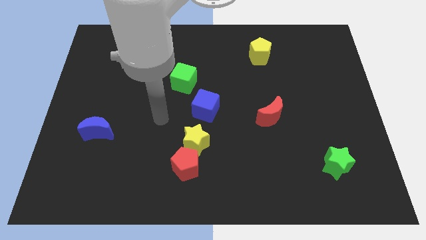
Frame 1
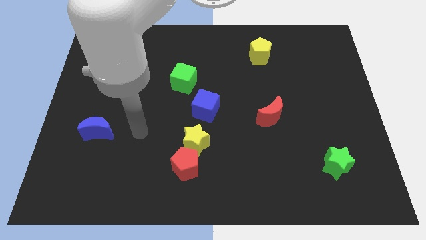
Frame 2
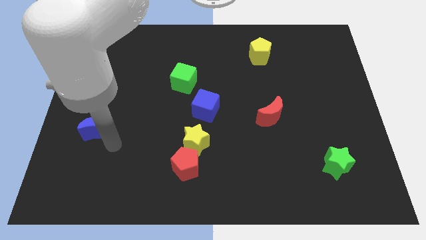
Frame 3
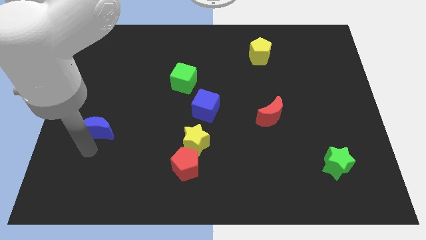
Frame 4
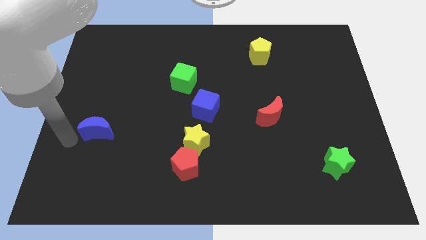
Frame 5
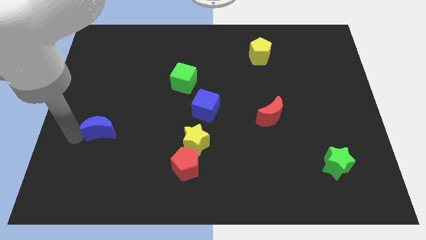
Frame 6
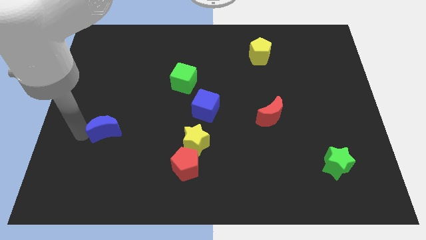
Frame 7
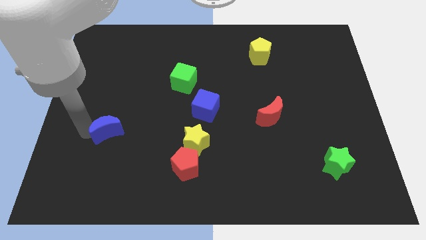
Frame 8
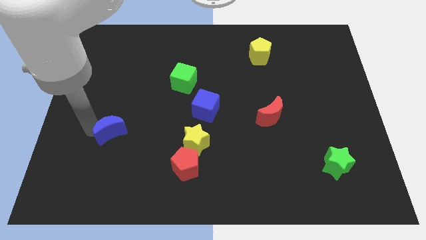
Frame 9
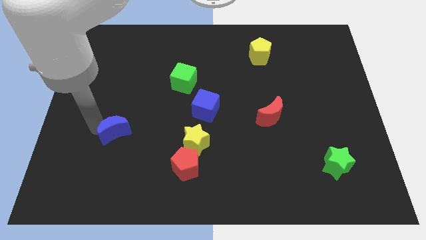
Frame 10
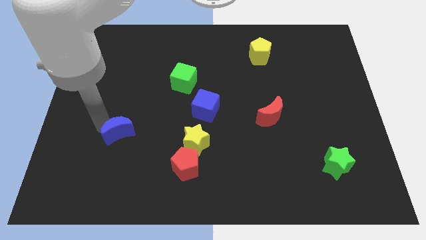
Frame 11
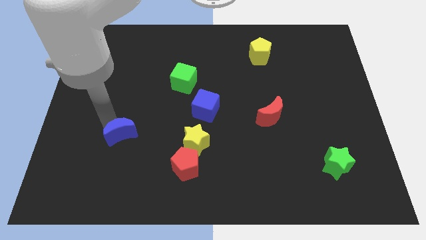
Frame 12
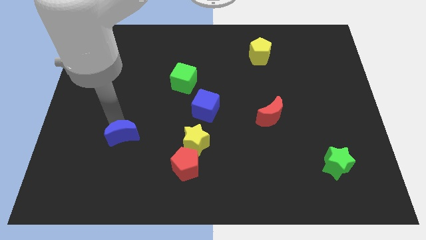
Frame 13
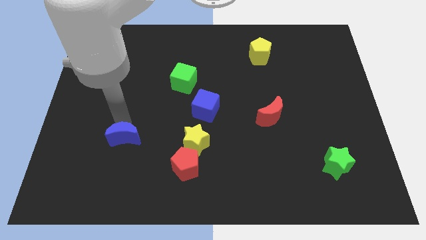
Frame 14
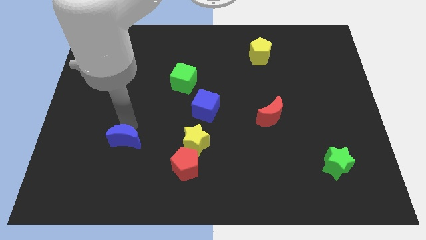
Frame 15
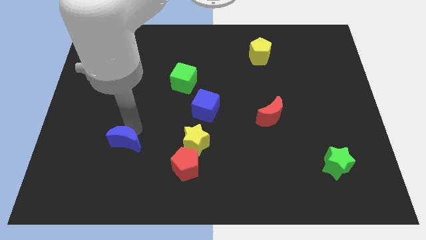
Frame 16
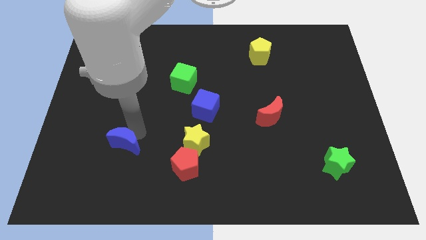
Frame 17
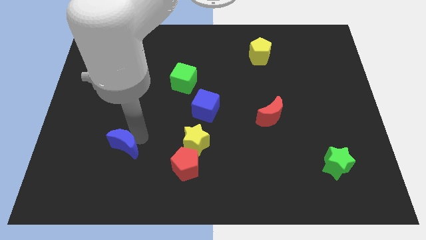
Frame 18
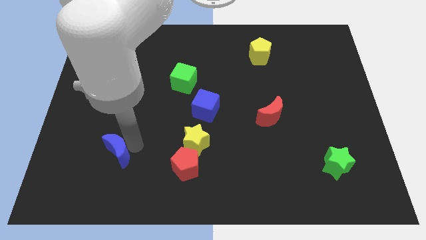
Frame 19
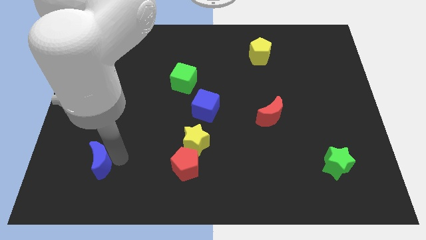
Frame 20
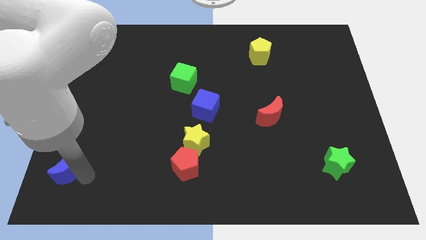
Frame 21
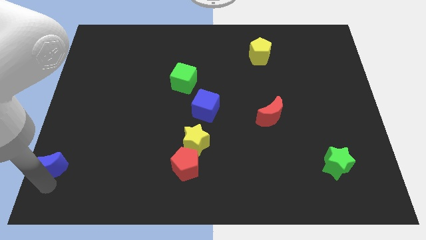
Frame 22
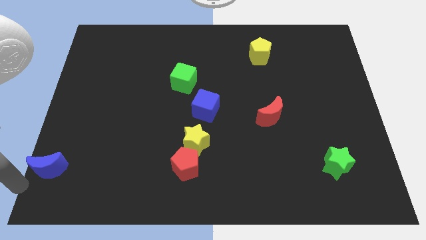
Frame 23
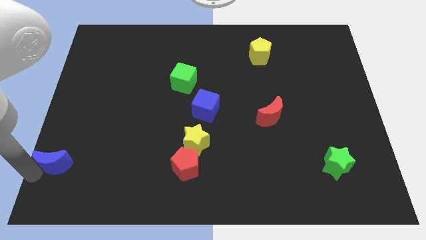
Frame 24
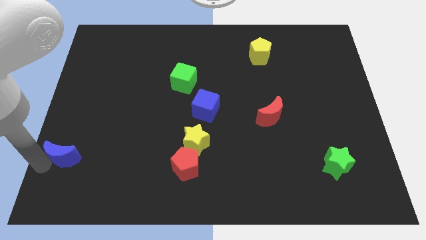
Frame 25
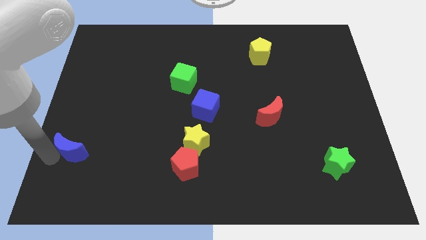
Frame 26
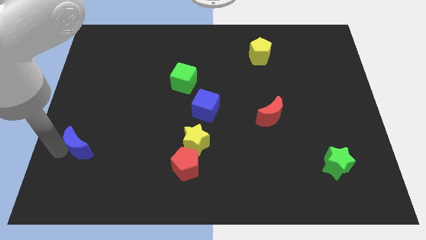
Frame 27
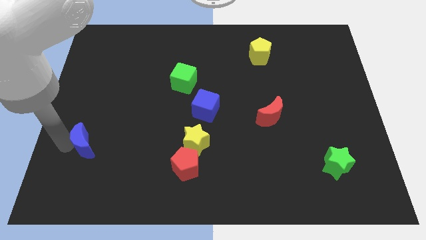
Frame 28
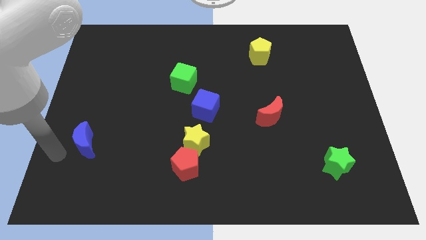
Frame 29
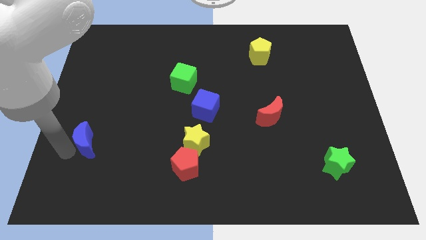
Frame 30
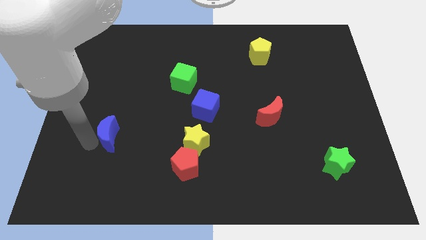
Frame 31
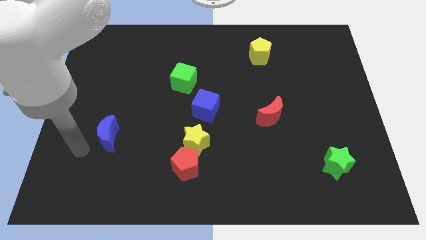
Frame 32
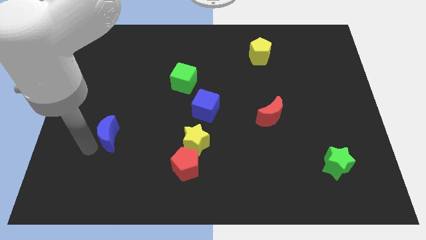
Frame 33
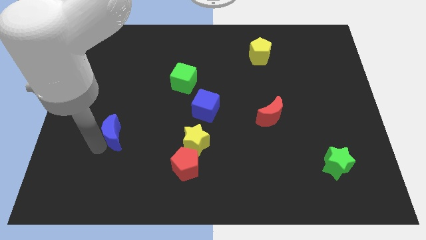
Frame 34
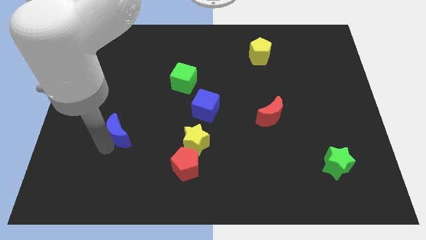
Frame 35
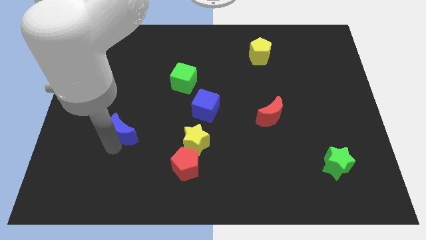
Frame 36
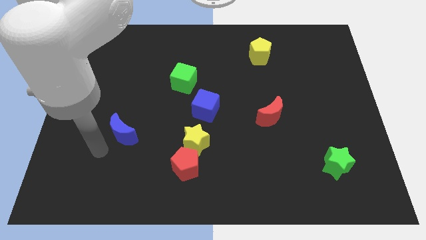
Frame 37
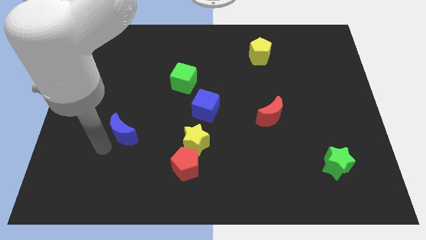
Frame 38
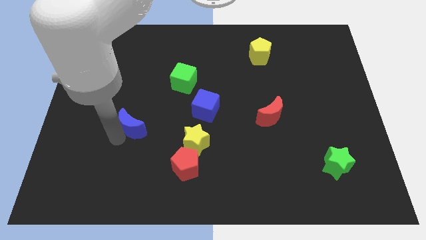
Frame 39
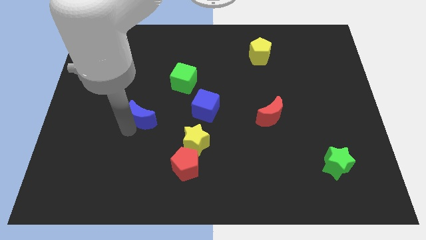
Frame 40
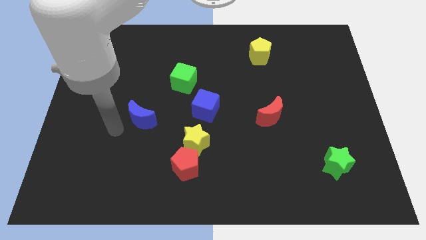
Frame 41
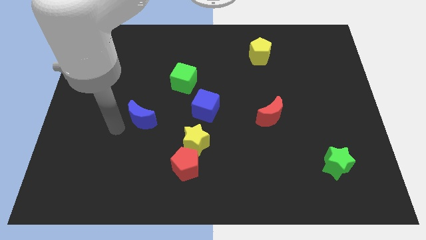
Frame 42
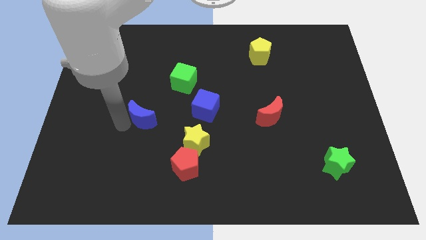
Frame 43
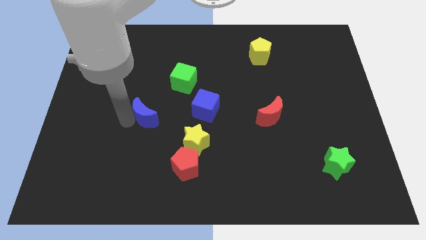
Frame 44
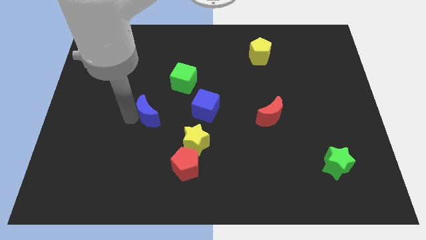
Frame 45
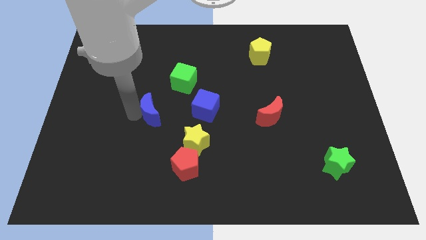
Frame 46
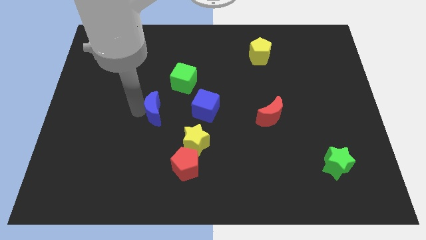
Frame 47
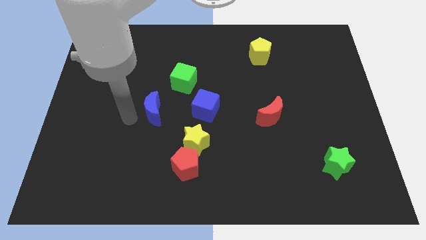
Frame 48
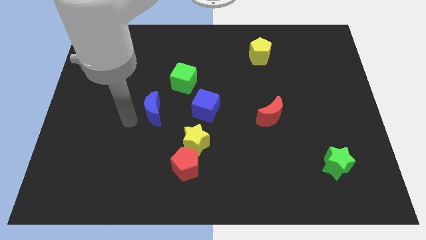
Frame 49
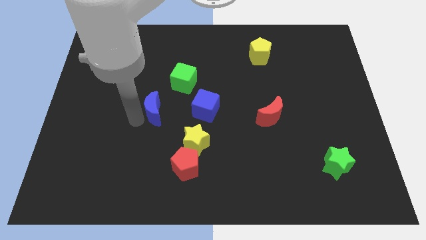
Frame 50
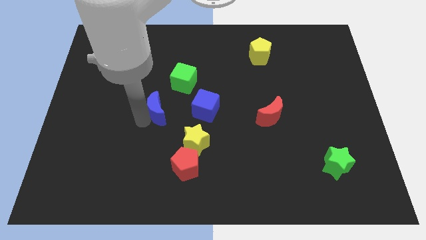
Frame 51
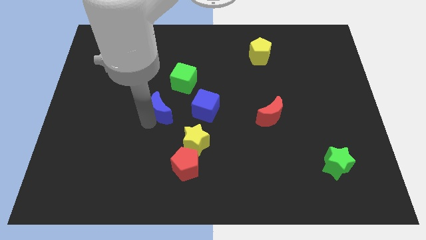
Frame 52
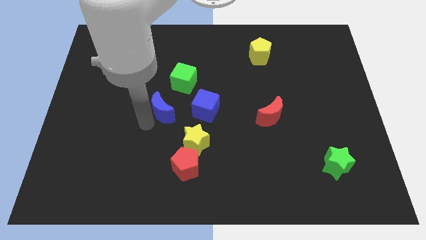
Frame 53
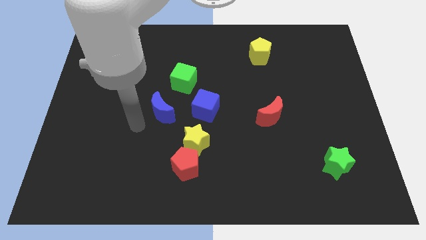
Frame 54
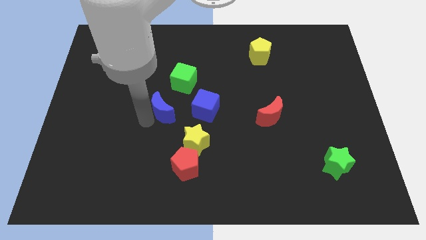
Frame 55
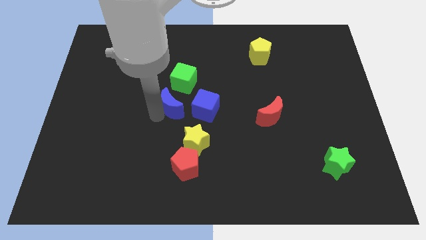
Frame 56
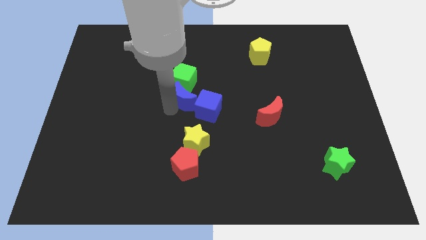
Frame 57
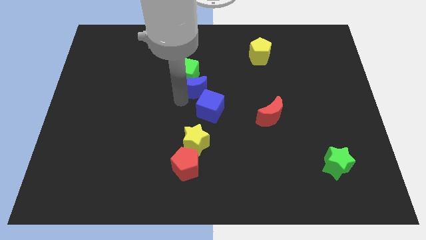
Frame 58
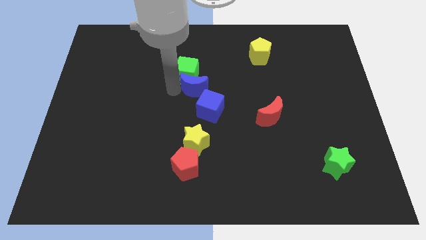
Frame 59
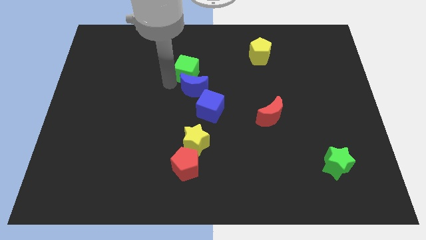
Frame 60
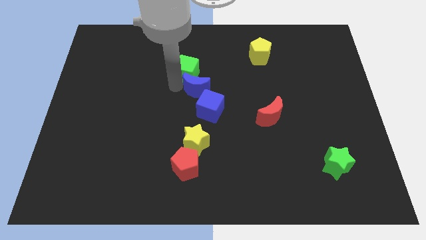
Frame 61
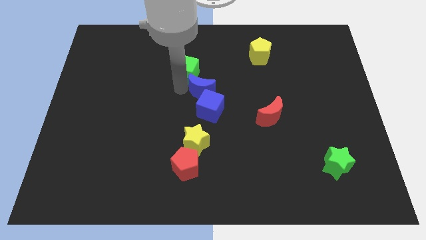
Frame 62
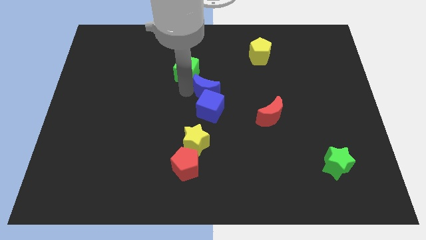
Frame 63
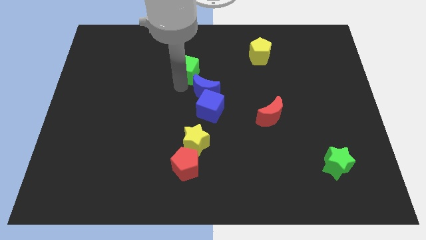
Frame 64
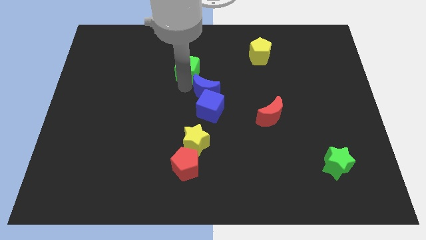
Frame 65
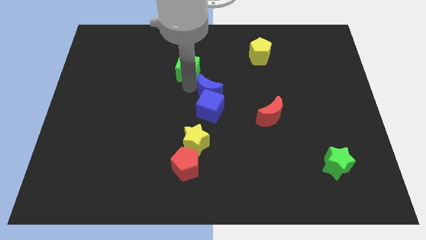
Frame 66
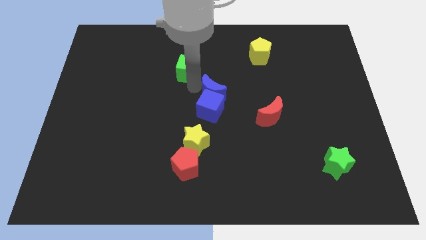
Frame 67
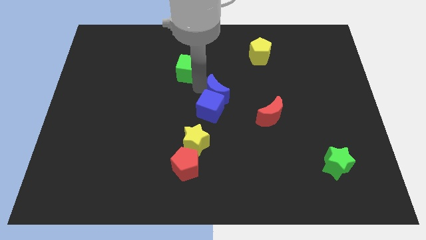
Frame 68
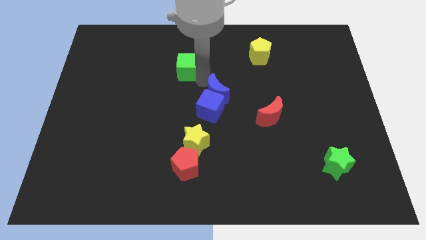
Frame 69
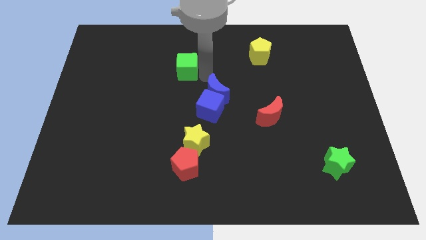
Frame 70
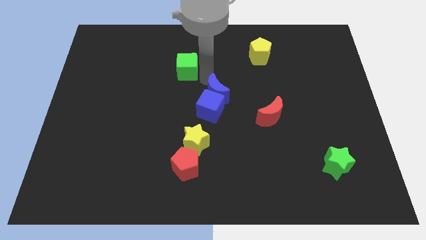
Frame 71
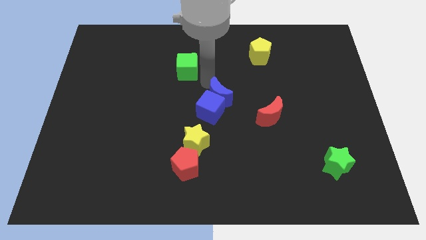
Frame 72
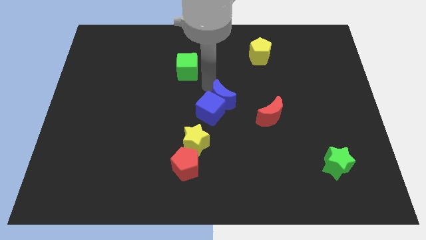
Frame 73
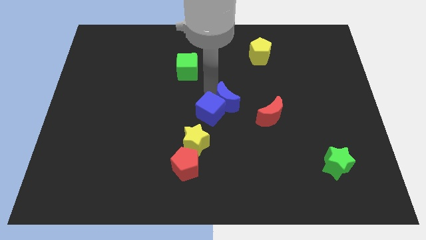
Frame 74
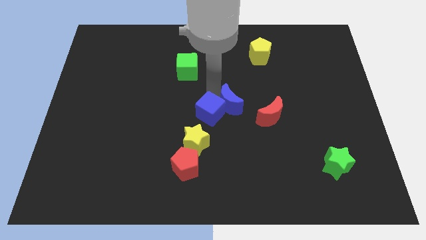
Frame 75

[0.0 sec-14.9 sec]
move the blue moon diagonally up and to the right of the yellow star
